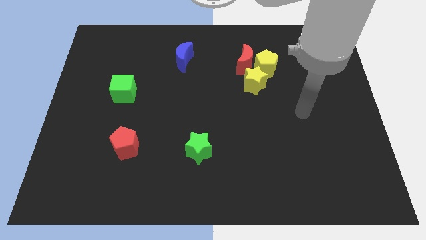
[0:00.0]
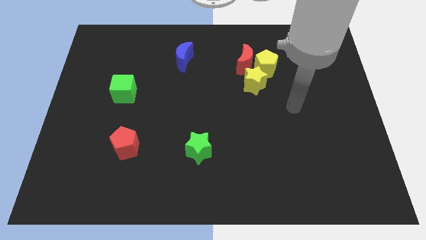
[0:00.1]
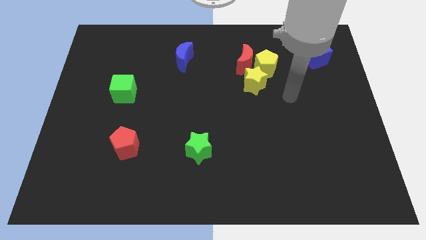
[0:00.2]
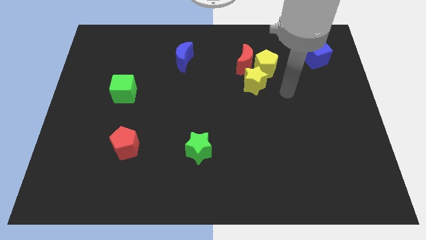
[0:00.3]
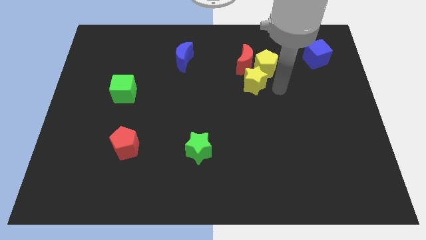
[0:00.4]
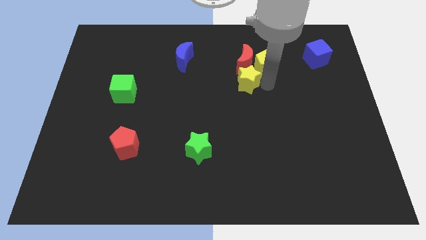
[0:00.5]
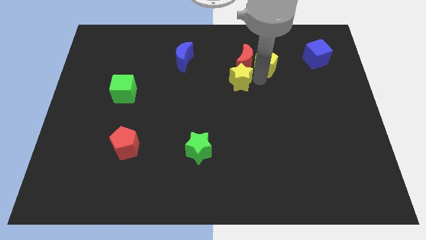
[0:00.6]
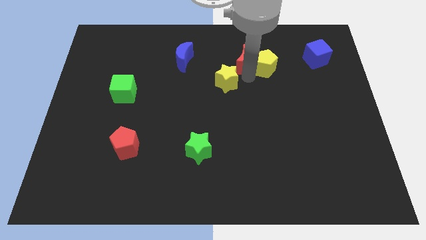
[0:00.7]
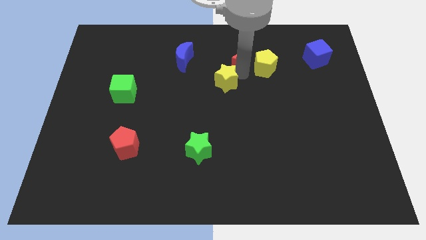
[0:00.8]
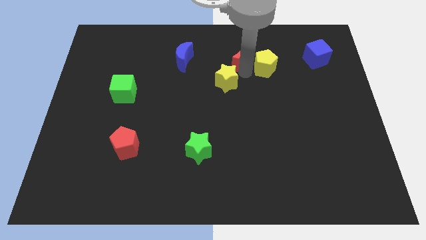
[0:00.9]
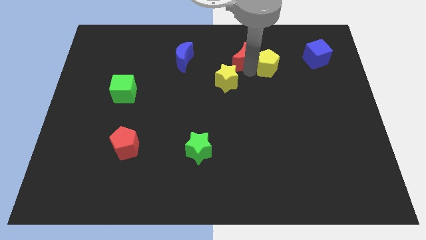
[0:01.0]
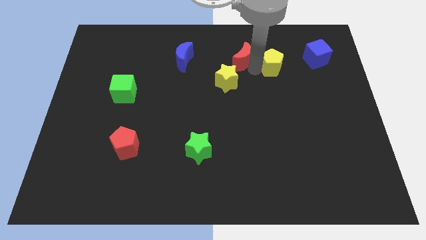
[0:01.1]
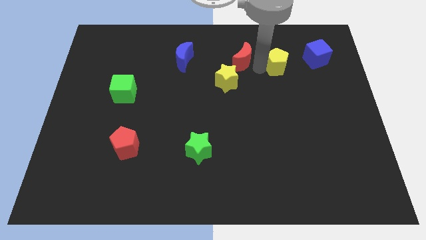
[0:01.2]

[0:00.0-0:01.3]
separate the yellow pentagon from the red moon and yellow star

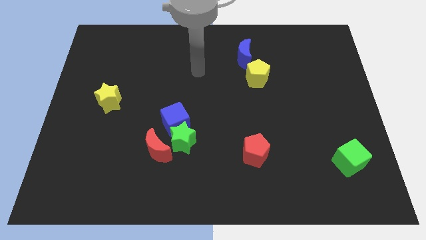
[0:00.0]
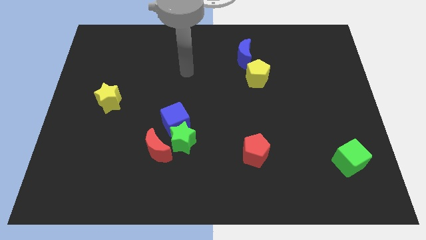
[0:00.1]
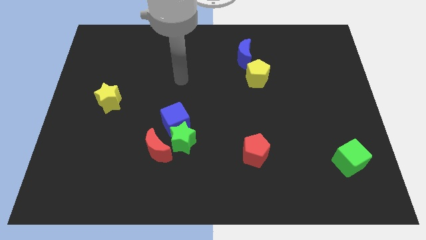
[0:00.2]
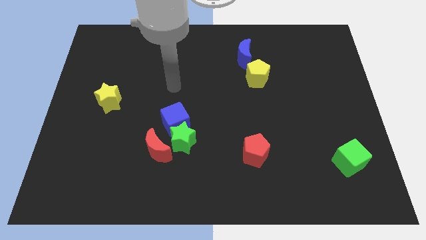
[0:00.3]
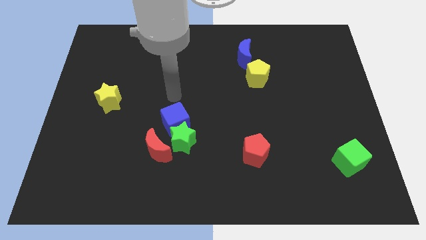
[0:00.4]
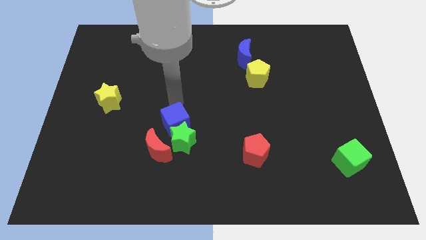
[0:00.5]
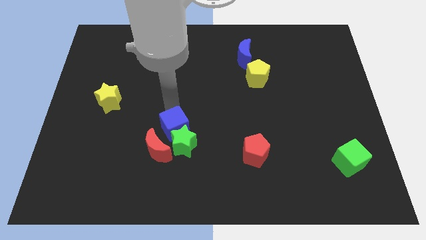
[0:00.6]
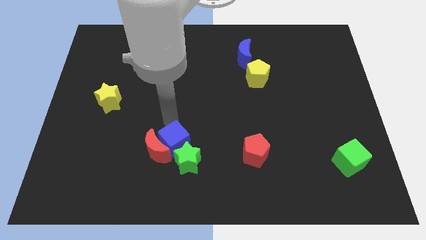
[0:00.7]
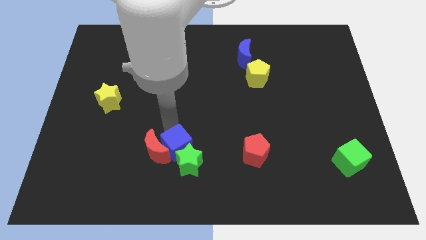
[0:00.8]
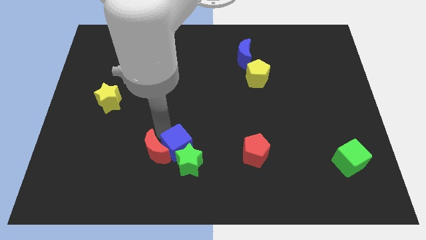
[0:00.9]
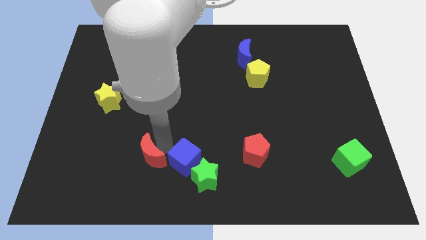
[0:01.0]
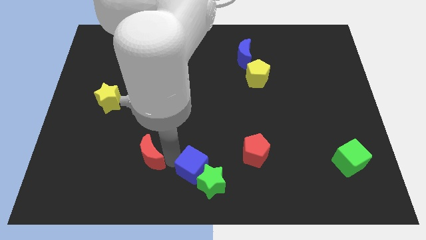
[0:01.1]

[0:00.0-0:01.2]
move the green star away from the blue cube and red moon

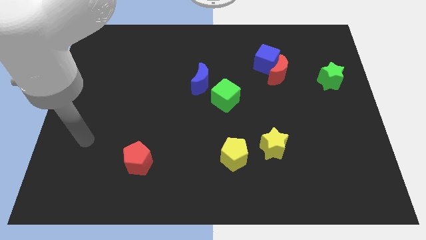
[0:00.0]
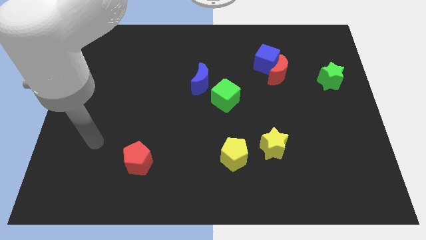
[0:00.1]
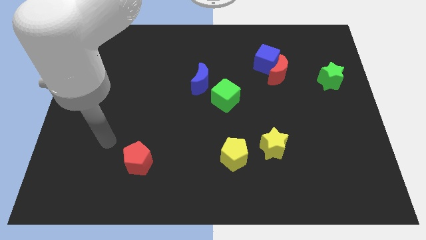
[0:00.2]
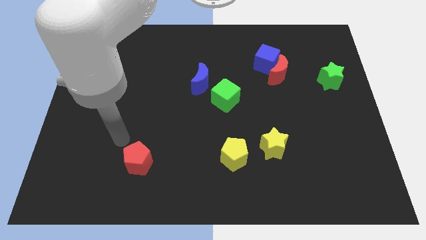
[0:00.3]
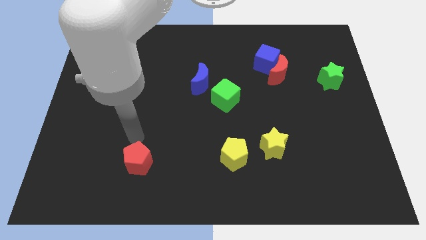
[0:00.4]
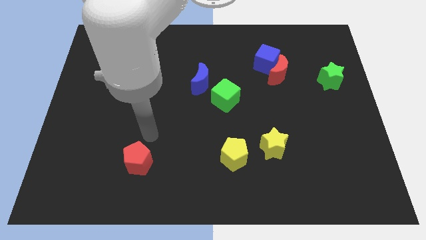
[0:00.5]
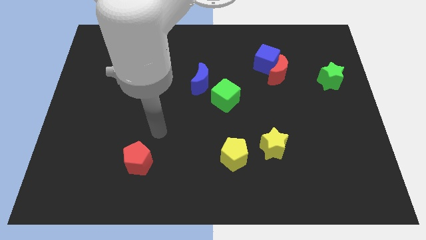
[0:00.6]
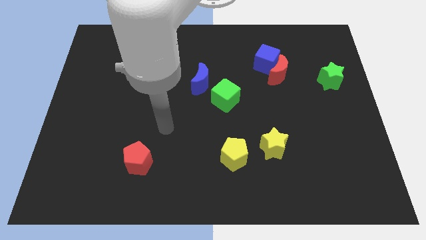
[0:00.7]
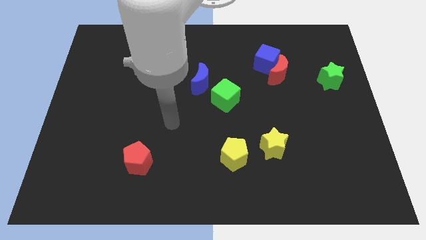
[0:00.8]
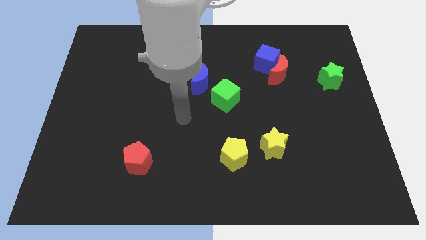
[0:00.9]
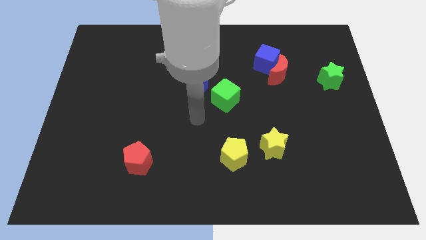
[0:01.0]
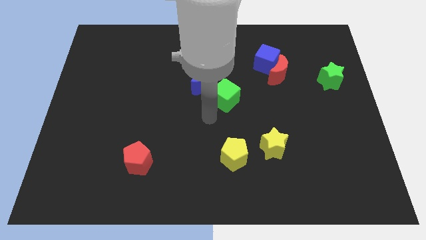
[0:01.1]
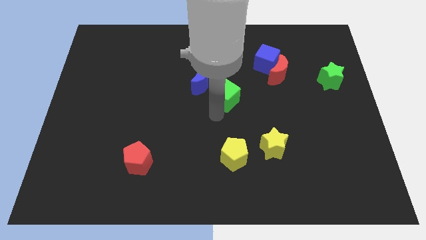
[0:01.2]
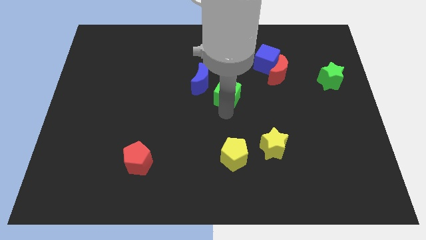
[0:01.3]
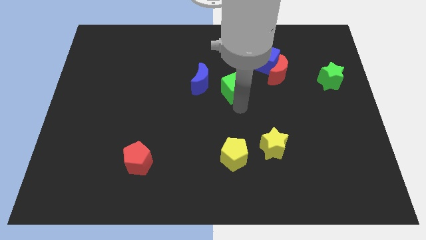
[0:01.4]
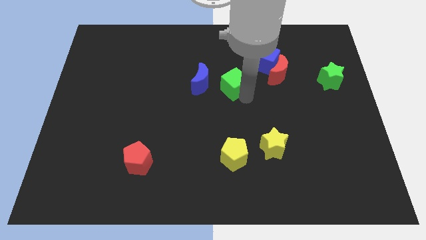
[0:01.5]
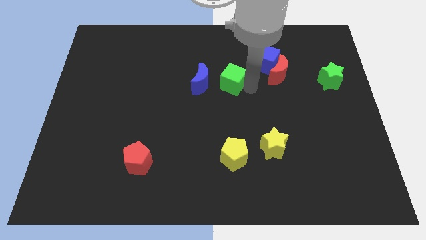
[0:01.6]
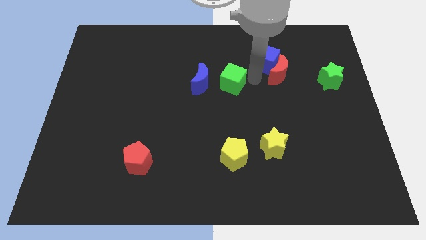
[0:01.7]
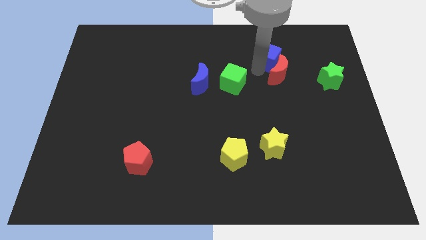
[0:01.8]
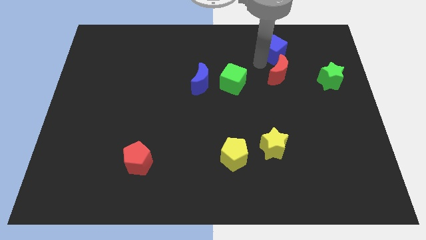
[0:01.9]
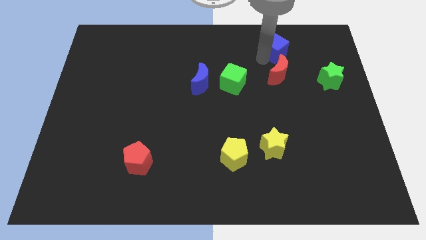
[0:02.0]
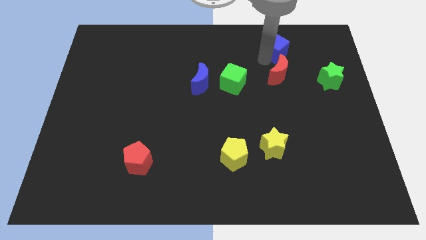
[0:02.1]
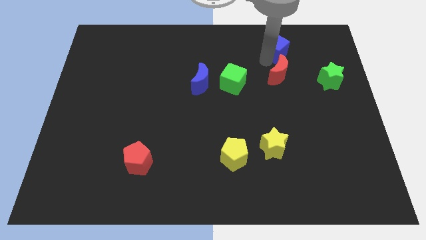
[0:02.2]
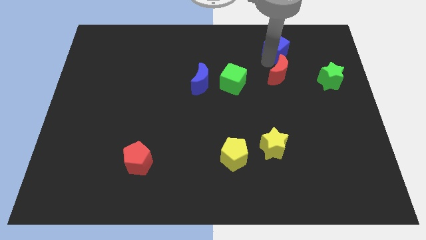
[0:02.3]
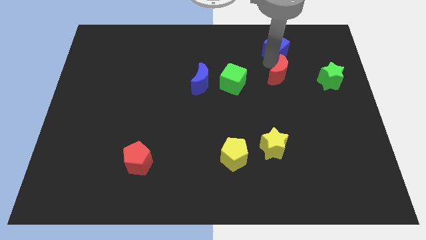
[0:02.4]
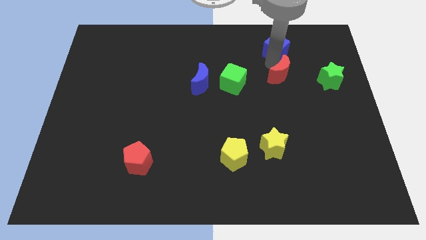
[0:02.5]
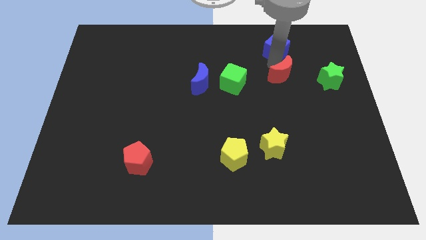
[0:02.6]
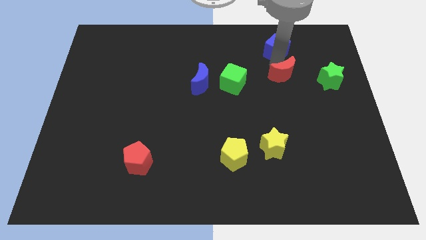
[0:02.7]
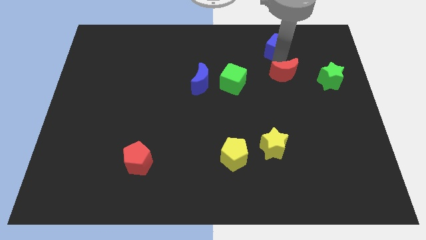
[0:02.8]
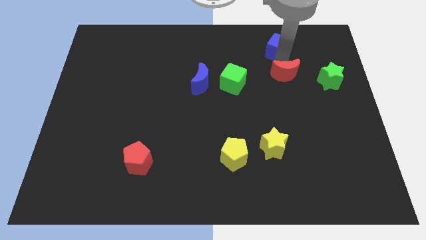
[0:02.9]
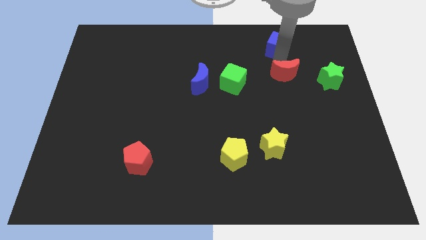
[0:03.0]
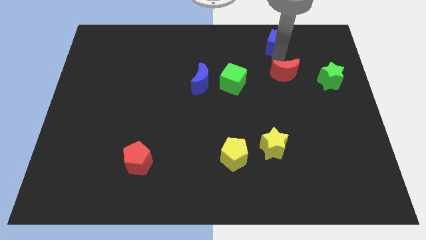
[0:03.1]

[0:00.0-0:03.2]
move the red moon away from the blue cube

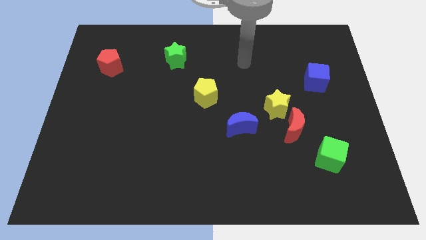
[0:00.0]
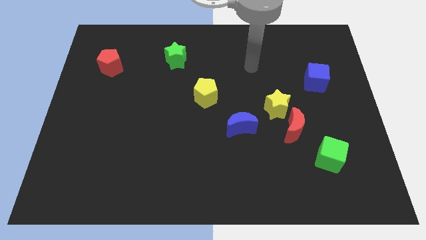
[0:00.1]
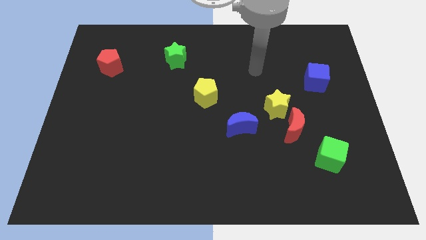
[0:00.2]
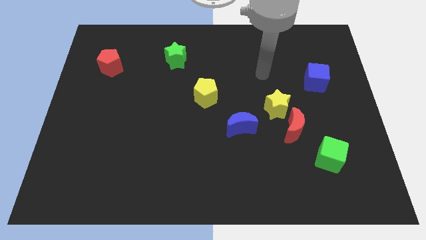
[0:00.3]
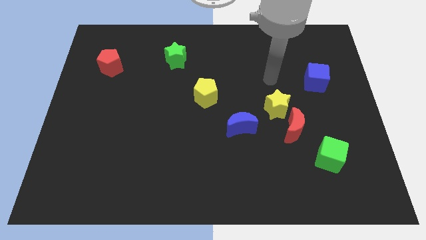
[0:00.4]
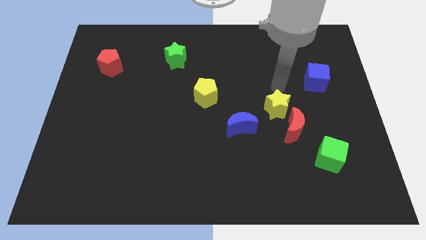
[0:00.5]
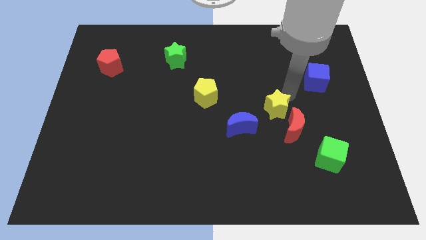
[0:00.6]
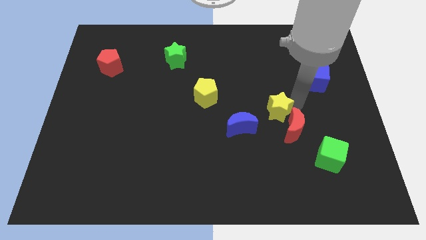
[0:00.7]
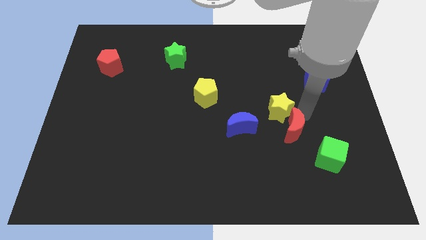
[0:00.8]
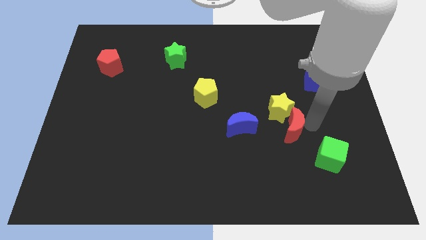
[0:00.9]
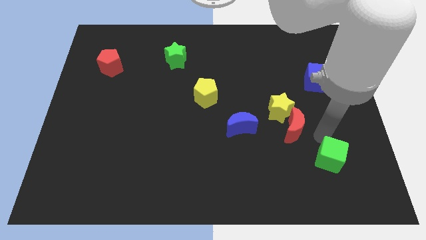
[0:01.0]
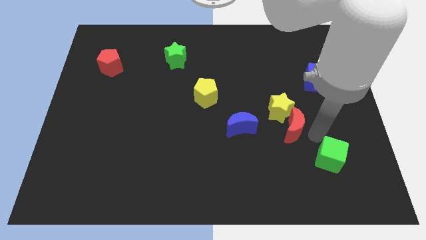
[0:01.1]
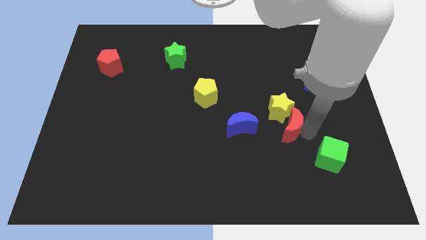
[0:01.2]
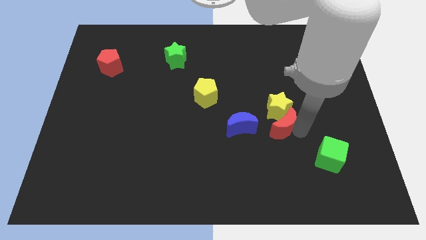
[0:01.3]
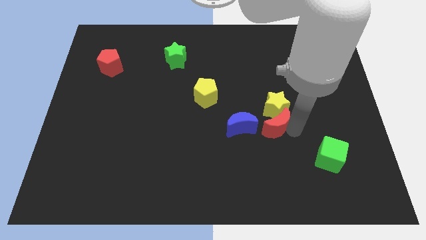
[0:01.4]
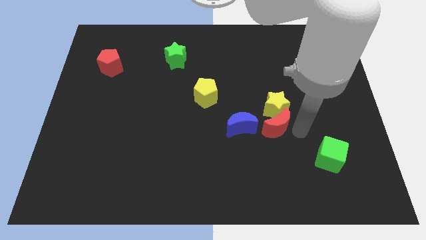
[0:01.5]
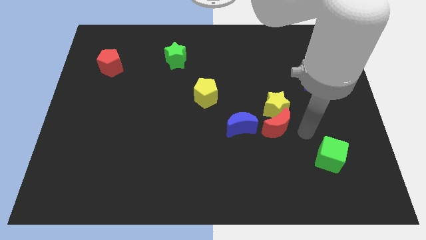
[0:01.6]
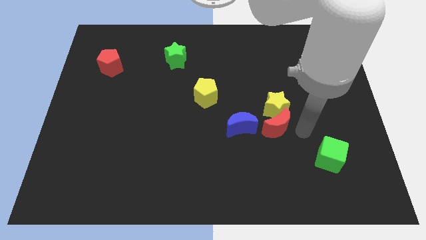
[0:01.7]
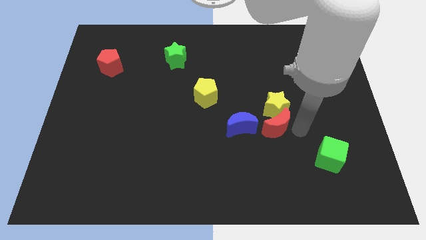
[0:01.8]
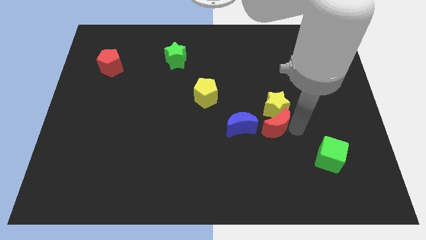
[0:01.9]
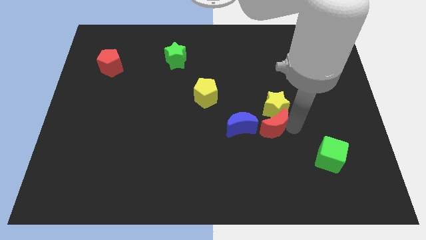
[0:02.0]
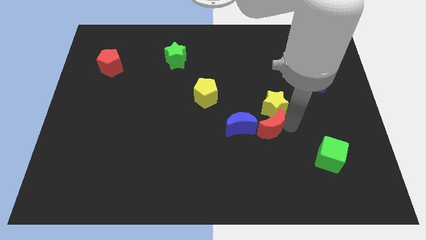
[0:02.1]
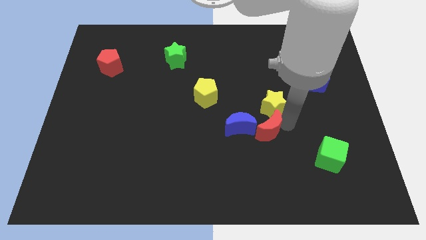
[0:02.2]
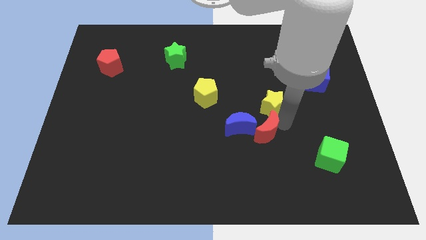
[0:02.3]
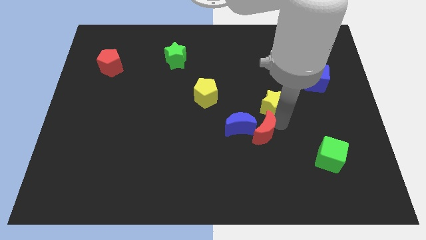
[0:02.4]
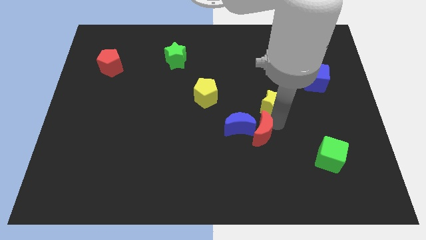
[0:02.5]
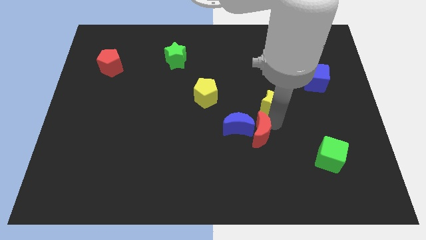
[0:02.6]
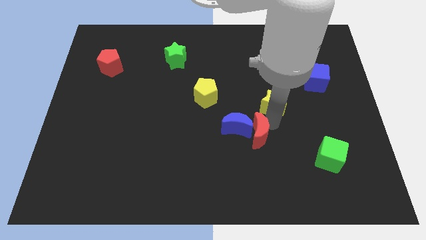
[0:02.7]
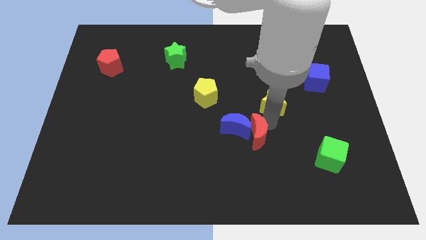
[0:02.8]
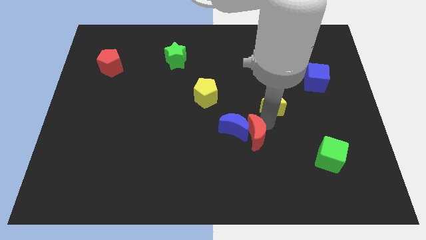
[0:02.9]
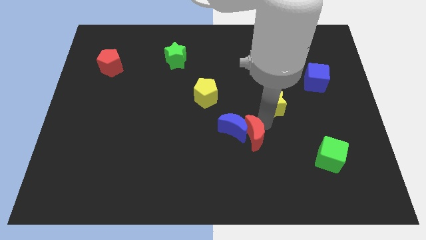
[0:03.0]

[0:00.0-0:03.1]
move the red moon away from the yellow star and green cube

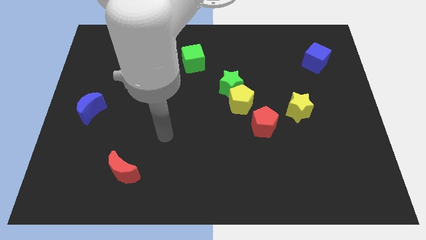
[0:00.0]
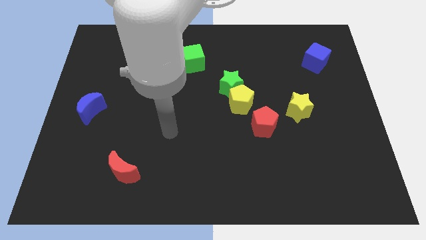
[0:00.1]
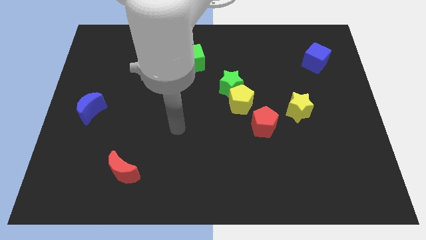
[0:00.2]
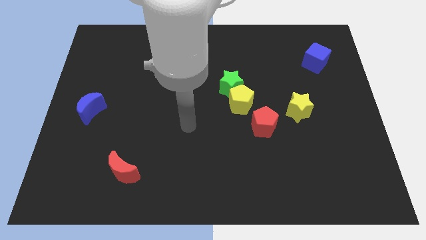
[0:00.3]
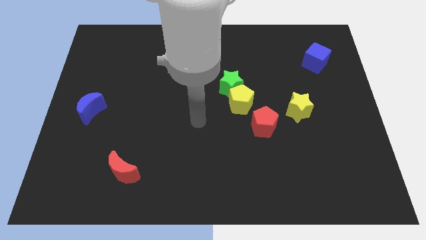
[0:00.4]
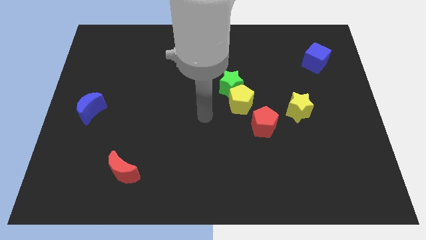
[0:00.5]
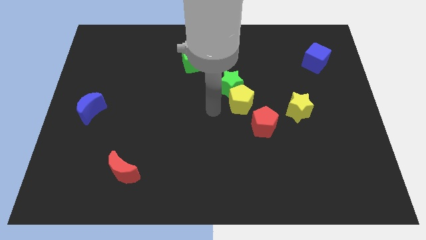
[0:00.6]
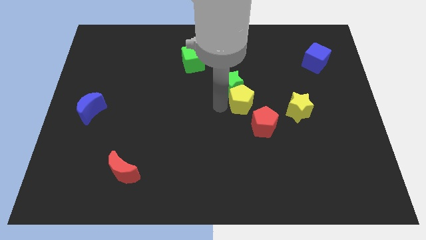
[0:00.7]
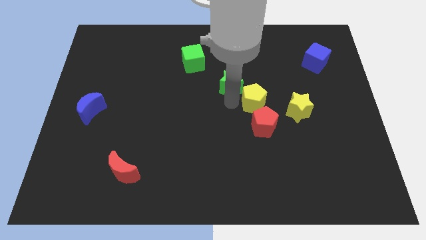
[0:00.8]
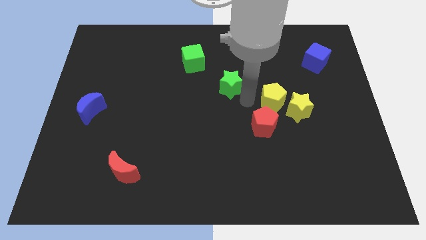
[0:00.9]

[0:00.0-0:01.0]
separate the green star from the yellow pentagon
